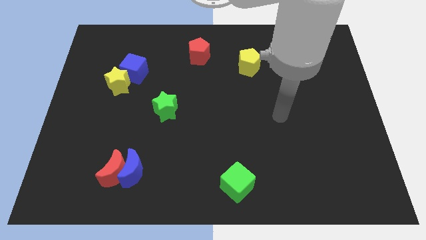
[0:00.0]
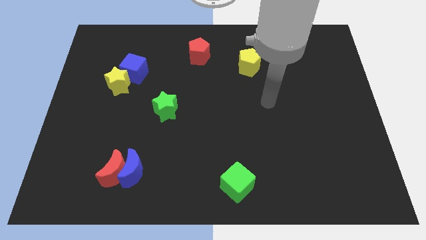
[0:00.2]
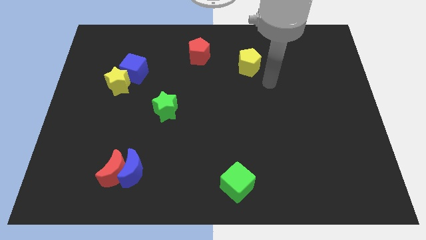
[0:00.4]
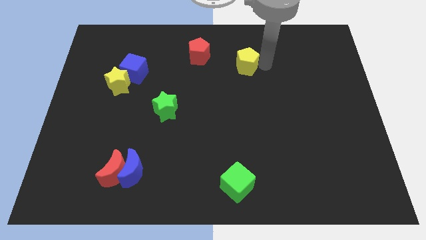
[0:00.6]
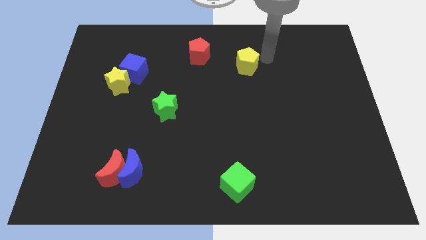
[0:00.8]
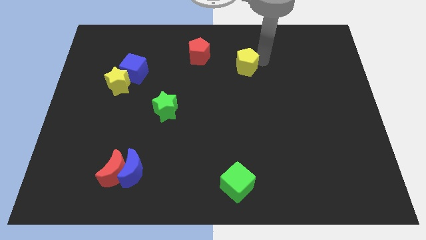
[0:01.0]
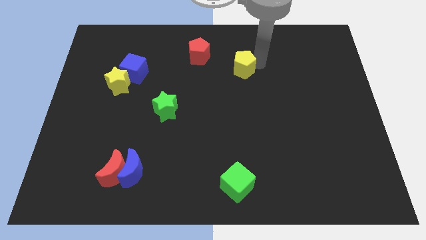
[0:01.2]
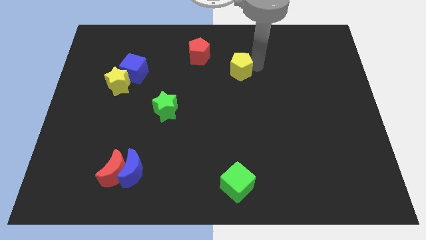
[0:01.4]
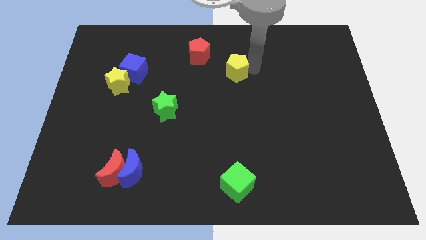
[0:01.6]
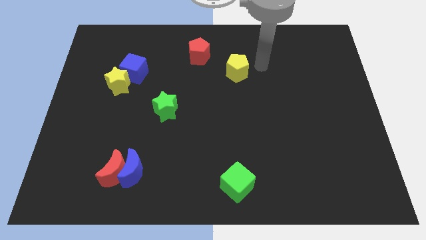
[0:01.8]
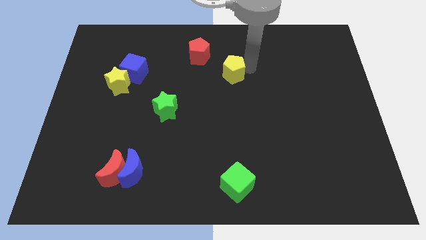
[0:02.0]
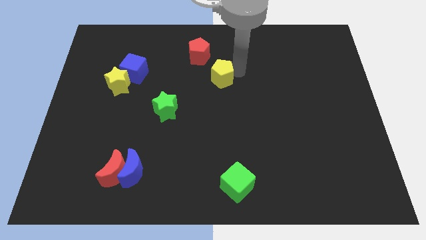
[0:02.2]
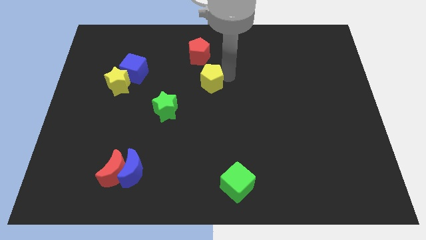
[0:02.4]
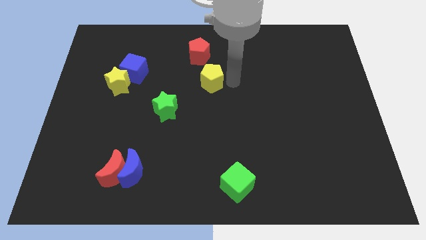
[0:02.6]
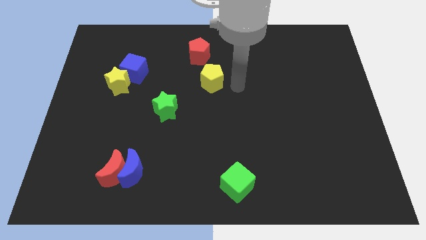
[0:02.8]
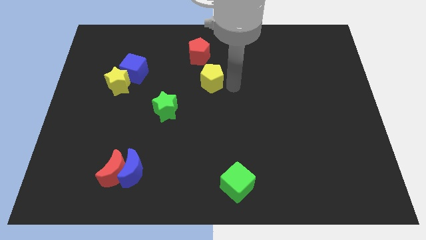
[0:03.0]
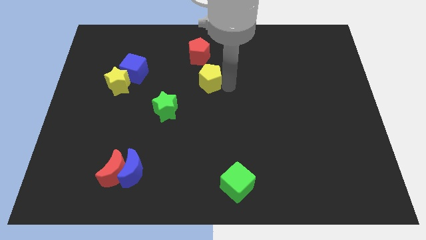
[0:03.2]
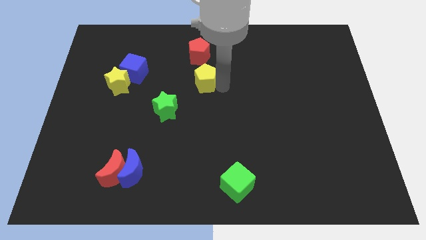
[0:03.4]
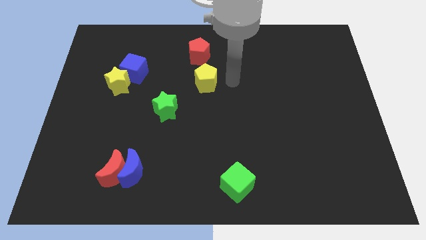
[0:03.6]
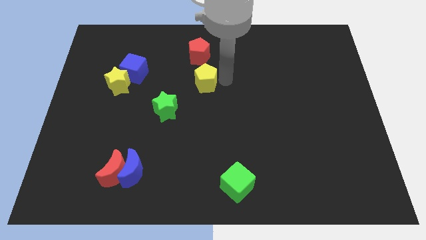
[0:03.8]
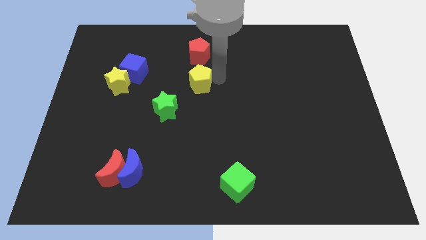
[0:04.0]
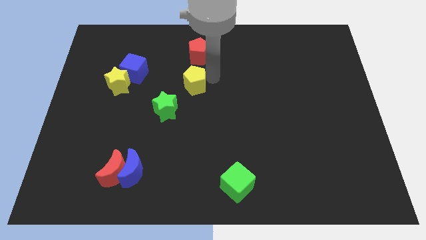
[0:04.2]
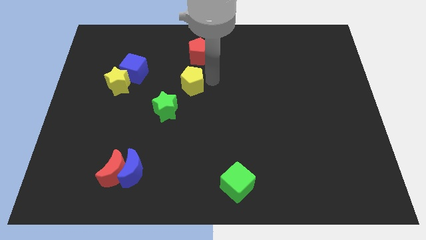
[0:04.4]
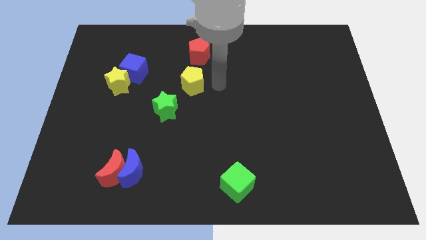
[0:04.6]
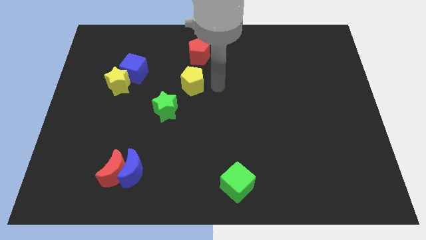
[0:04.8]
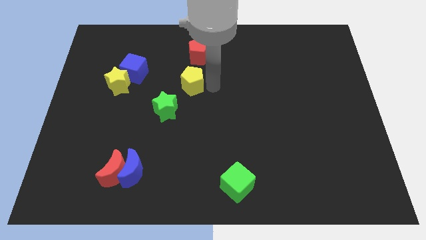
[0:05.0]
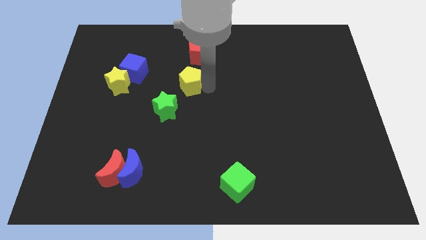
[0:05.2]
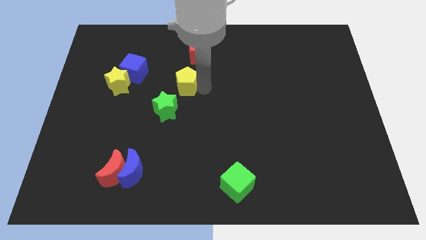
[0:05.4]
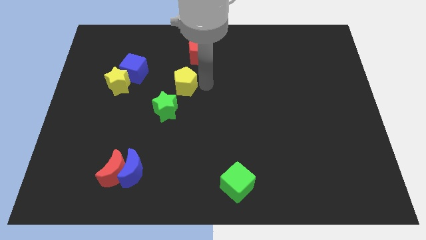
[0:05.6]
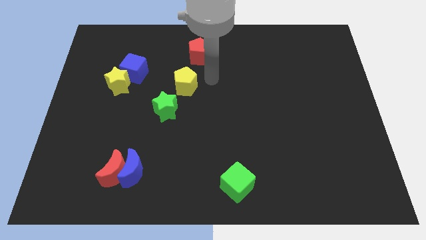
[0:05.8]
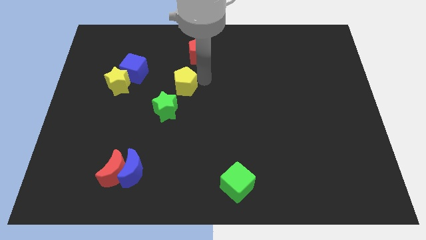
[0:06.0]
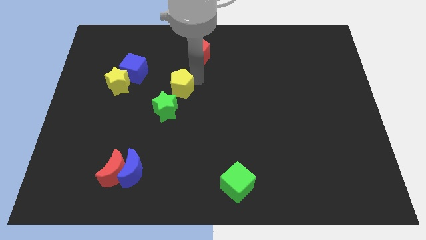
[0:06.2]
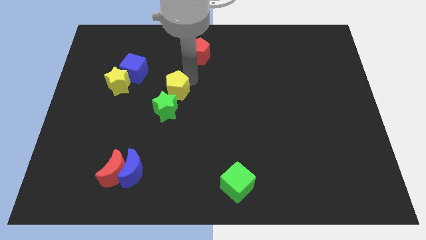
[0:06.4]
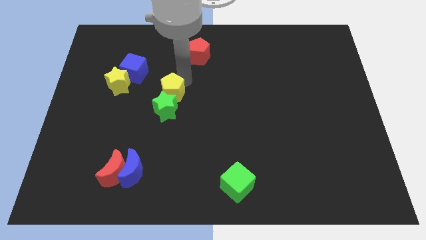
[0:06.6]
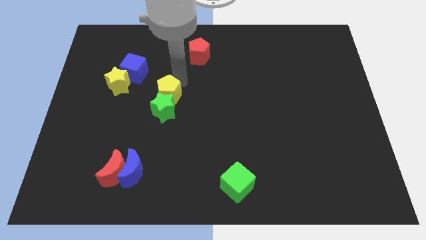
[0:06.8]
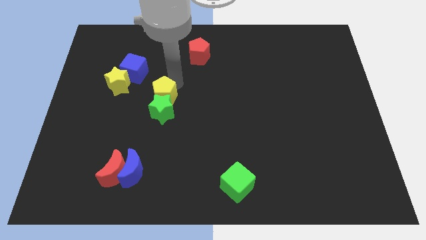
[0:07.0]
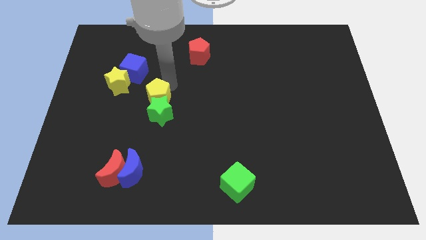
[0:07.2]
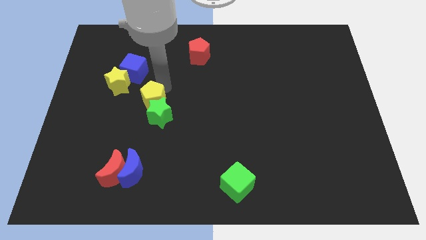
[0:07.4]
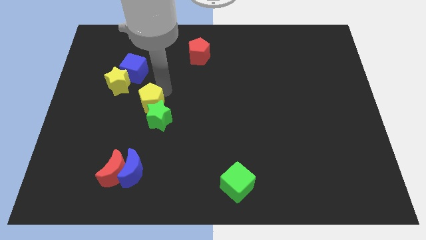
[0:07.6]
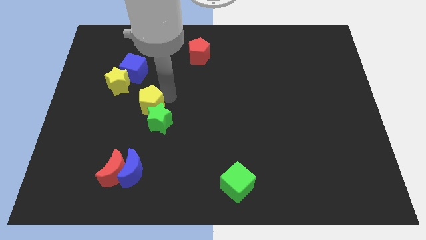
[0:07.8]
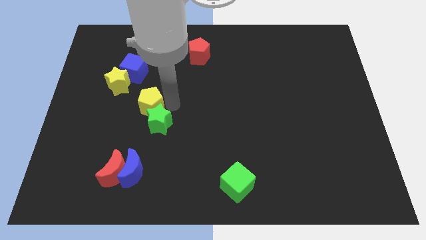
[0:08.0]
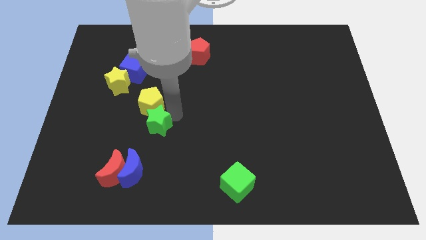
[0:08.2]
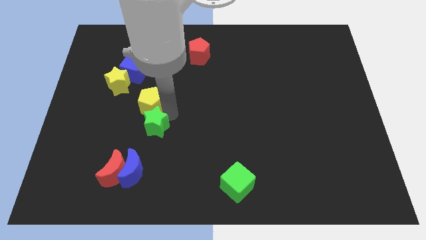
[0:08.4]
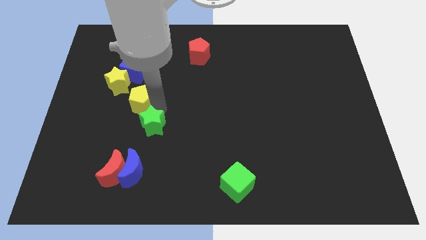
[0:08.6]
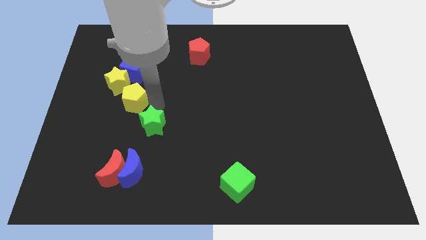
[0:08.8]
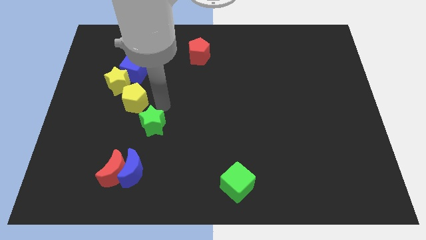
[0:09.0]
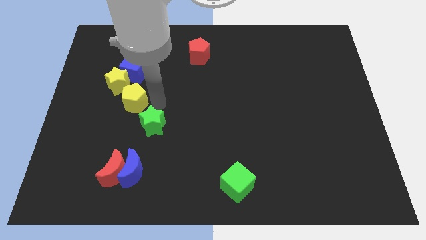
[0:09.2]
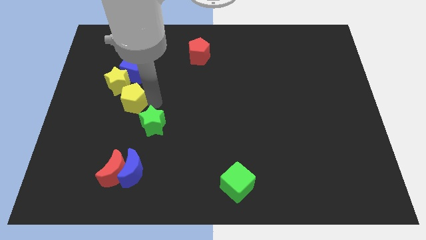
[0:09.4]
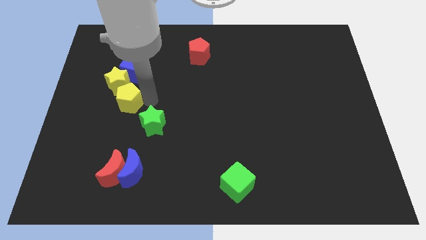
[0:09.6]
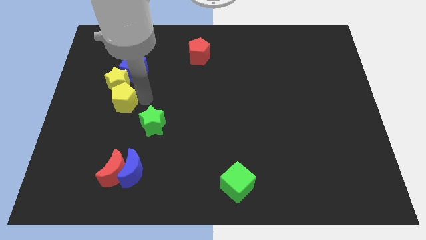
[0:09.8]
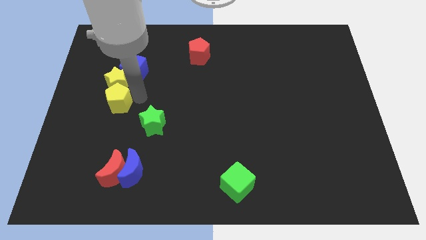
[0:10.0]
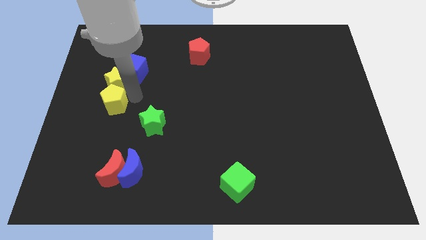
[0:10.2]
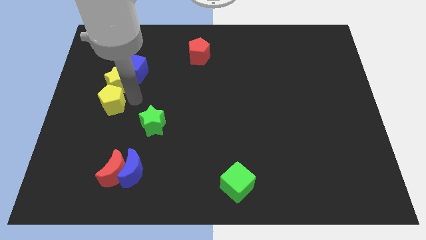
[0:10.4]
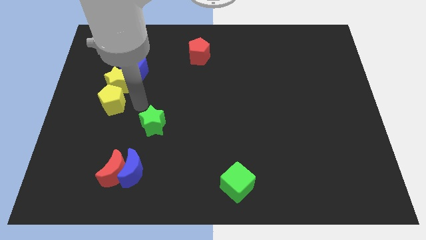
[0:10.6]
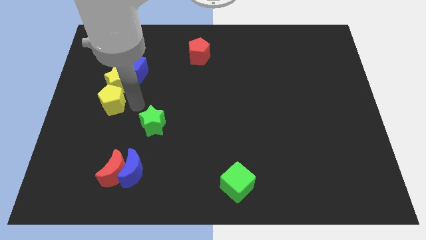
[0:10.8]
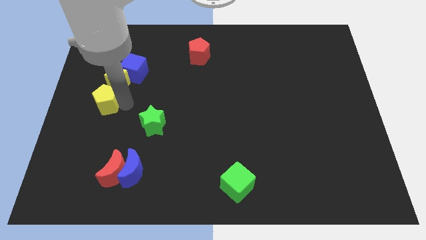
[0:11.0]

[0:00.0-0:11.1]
push the yellow pentagon to the center left

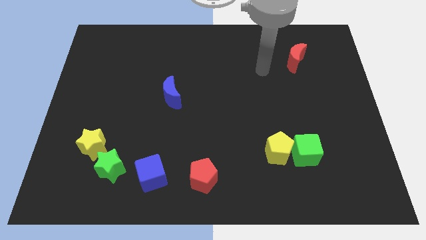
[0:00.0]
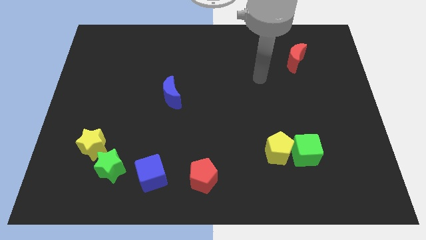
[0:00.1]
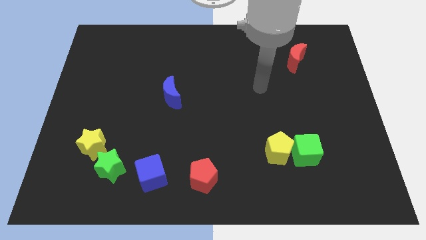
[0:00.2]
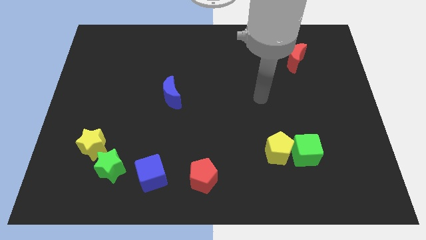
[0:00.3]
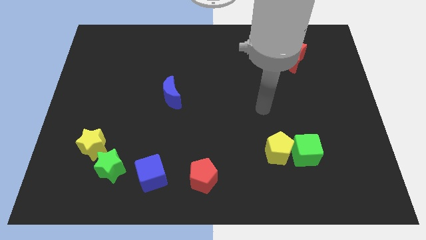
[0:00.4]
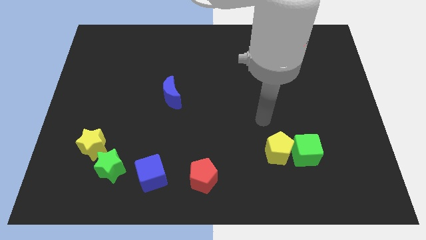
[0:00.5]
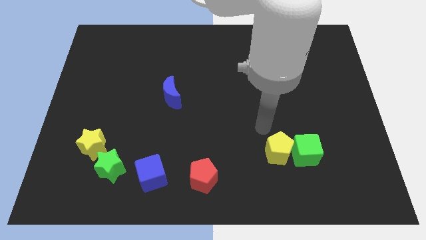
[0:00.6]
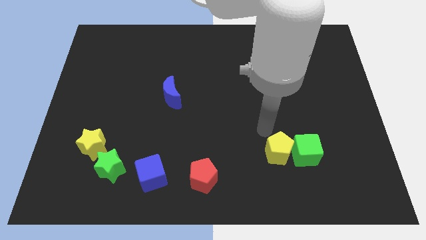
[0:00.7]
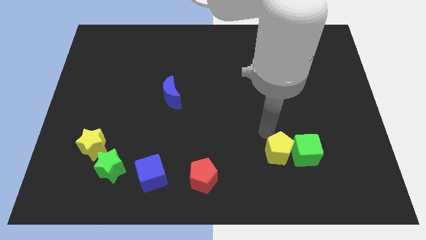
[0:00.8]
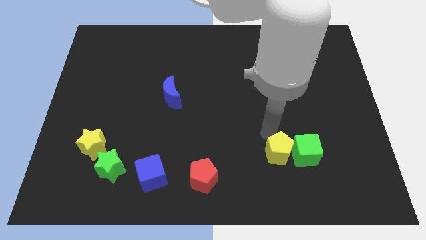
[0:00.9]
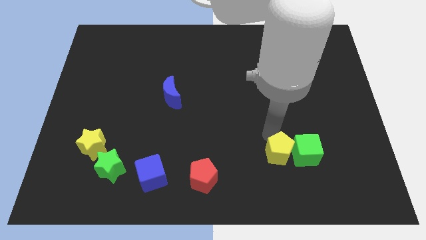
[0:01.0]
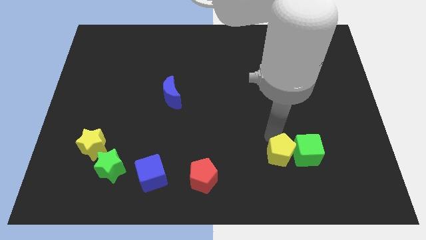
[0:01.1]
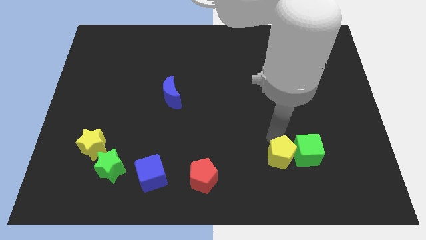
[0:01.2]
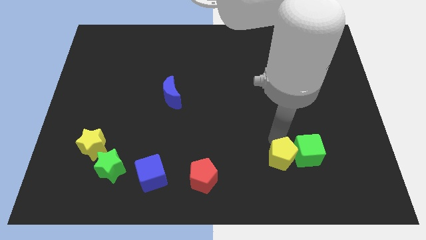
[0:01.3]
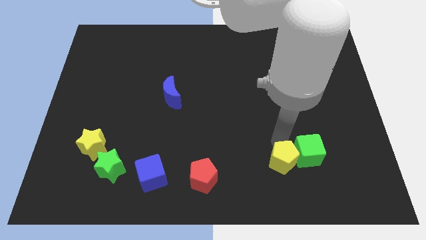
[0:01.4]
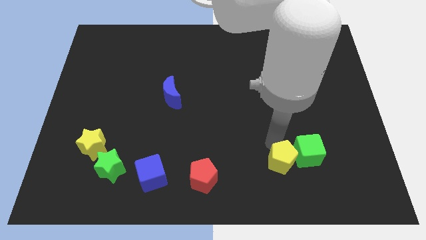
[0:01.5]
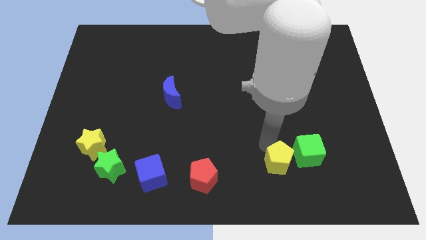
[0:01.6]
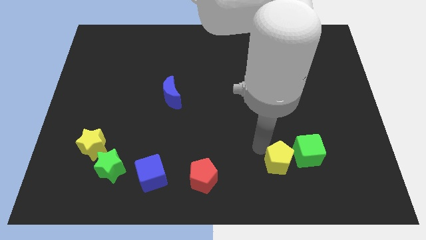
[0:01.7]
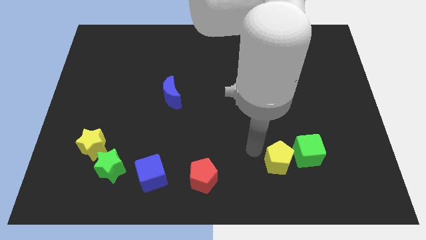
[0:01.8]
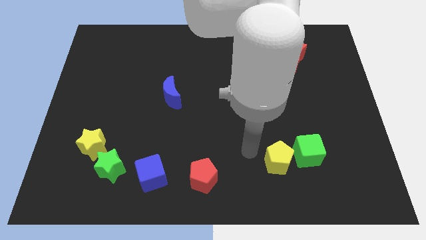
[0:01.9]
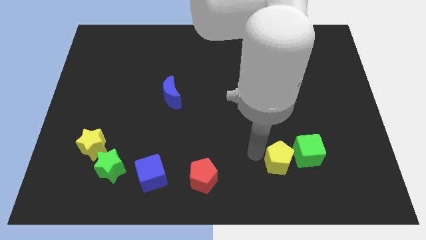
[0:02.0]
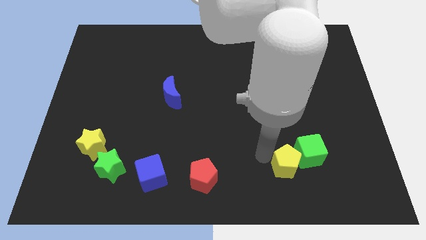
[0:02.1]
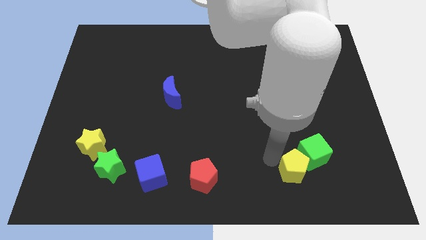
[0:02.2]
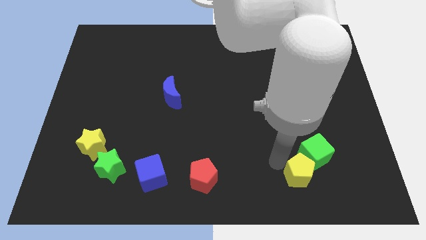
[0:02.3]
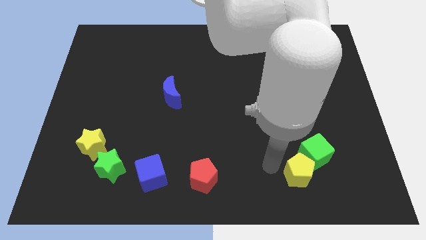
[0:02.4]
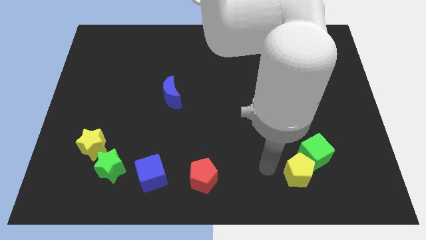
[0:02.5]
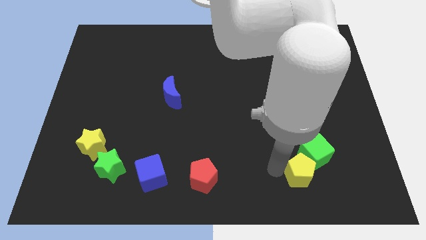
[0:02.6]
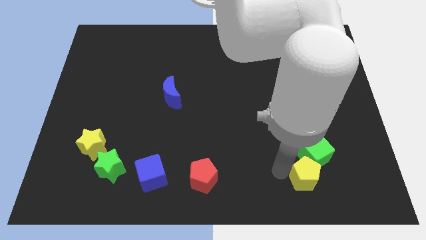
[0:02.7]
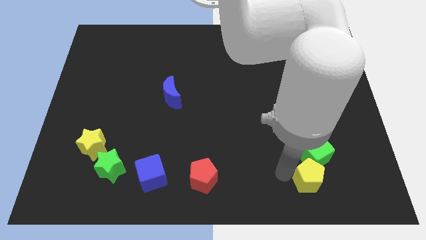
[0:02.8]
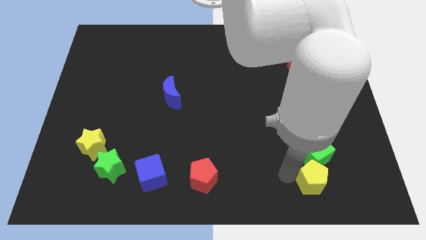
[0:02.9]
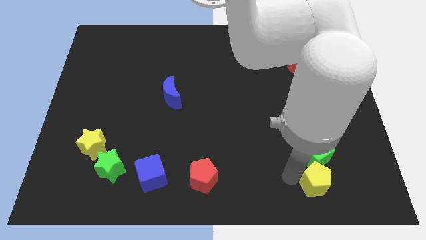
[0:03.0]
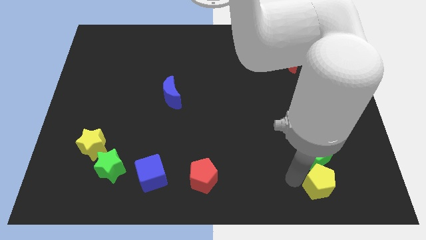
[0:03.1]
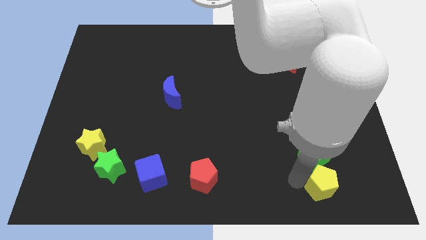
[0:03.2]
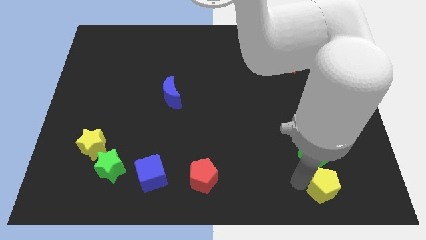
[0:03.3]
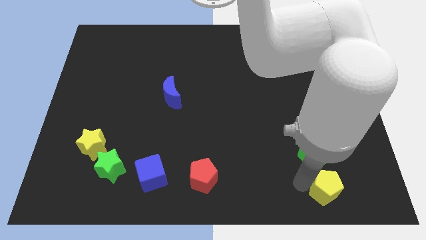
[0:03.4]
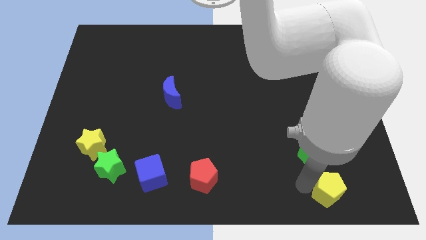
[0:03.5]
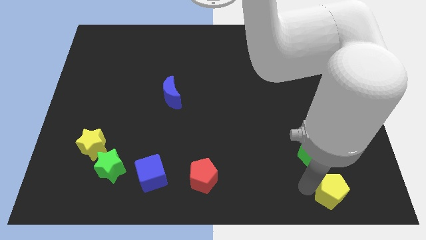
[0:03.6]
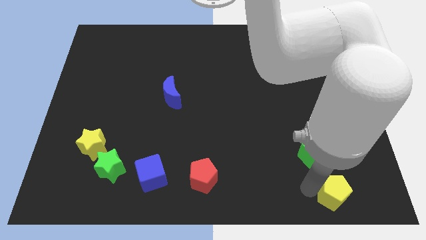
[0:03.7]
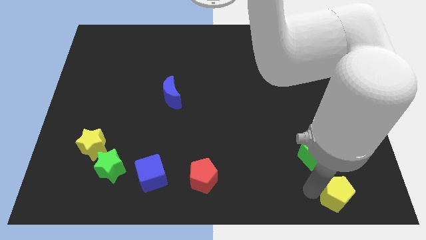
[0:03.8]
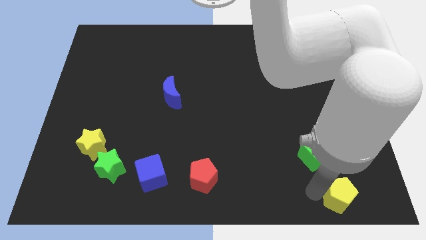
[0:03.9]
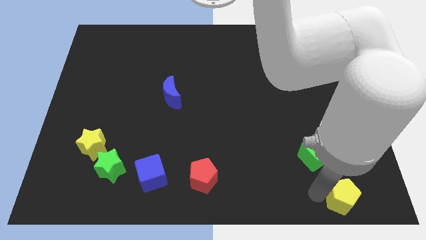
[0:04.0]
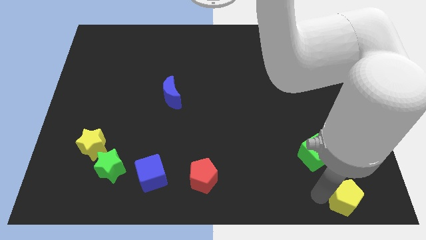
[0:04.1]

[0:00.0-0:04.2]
move the yellow pentagon to the bottom right
